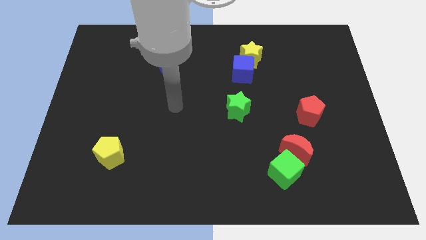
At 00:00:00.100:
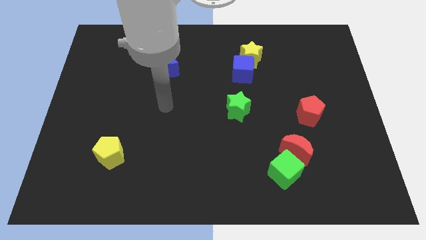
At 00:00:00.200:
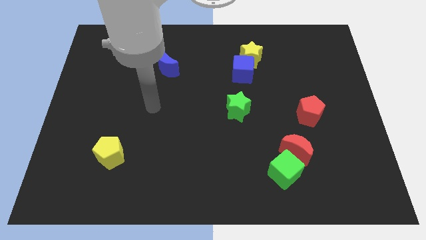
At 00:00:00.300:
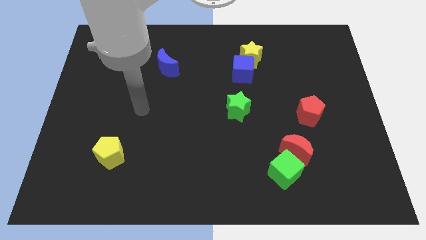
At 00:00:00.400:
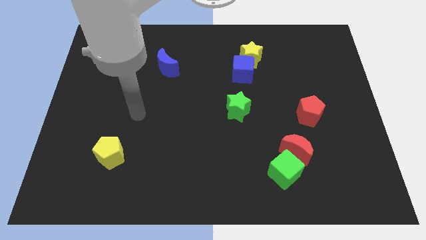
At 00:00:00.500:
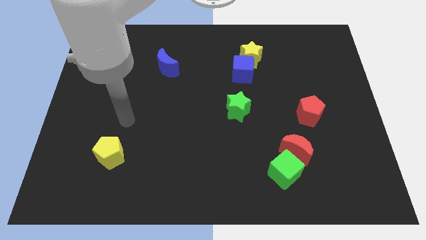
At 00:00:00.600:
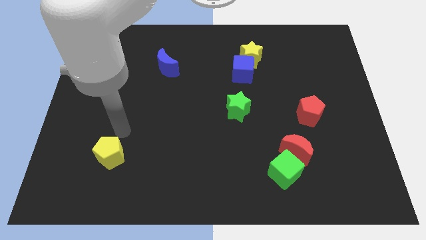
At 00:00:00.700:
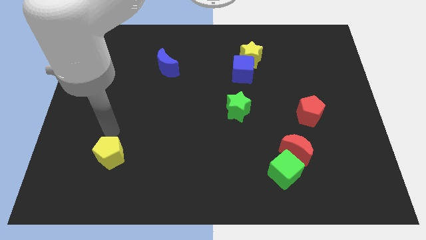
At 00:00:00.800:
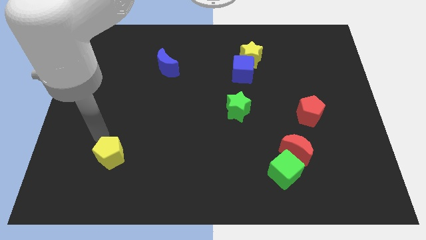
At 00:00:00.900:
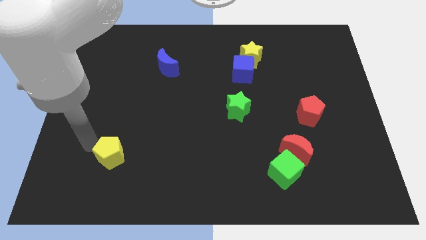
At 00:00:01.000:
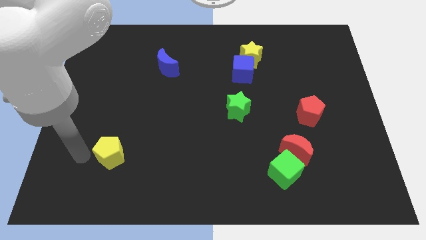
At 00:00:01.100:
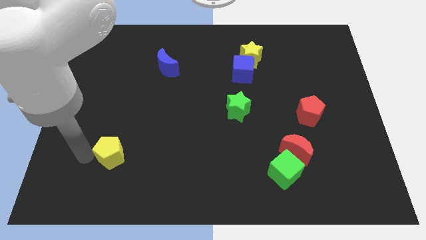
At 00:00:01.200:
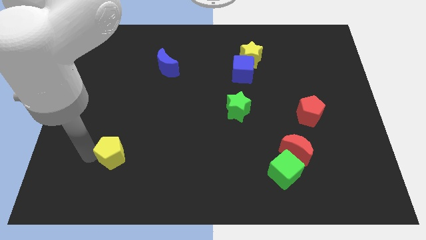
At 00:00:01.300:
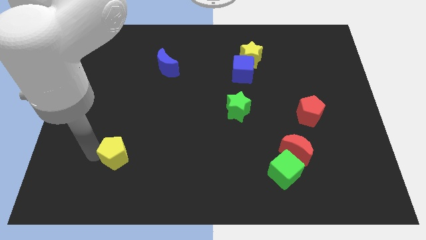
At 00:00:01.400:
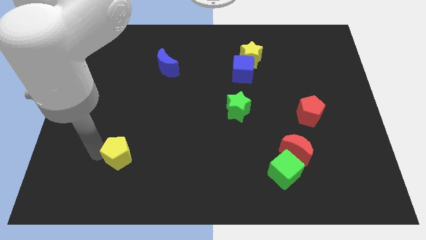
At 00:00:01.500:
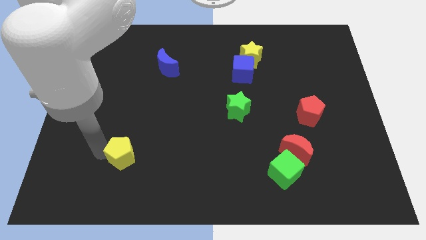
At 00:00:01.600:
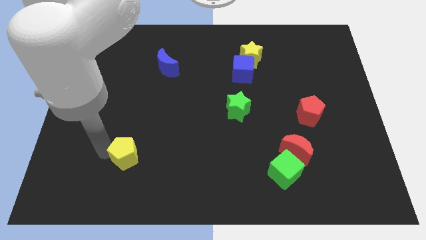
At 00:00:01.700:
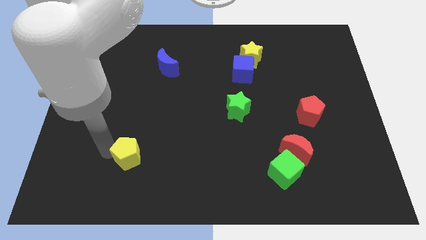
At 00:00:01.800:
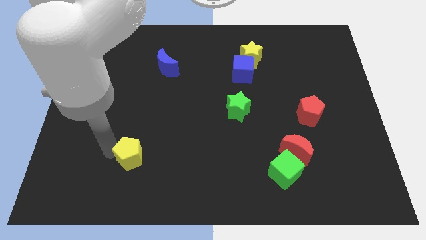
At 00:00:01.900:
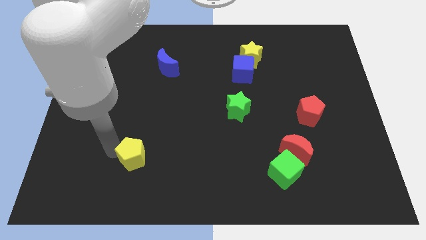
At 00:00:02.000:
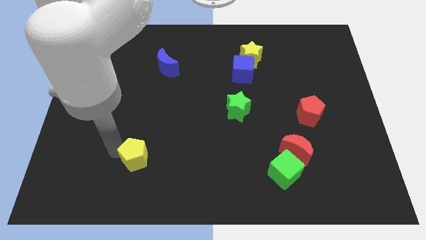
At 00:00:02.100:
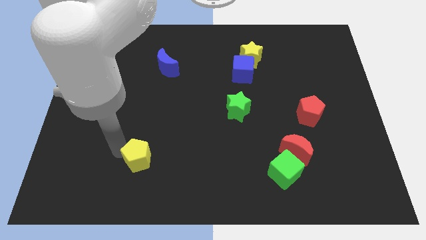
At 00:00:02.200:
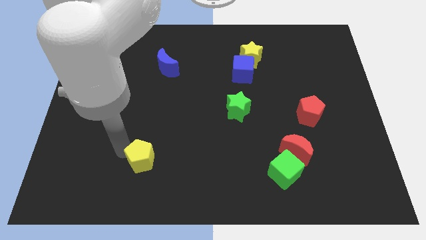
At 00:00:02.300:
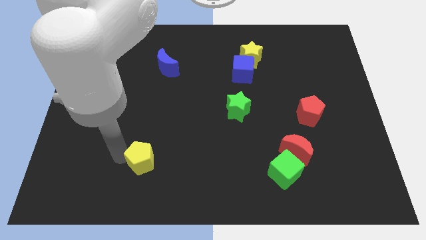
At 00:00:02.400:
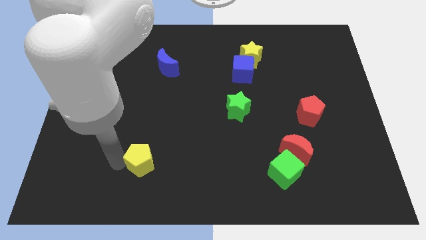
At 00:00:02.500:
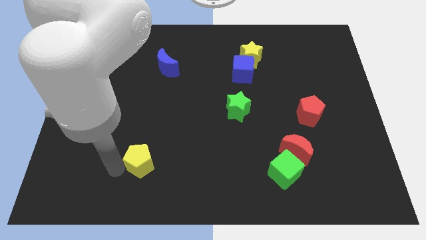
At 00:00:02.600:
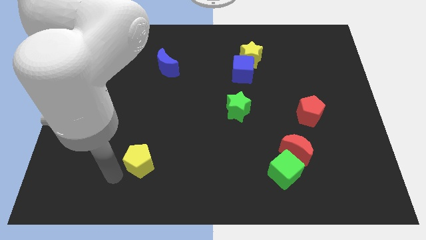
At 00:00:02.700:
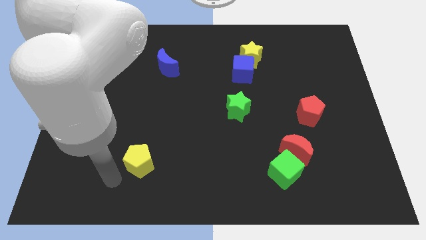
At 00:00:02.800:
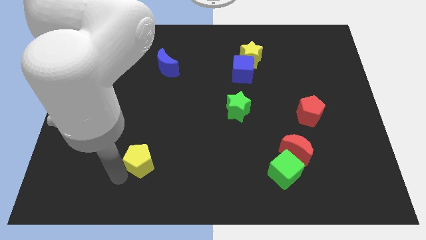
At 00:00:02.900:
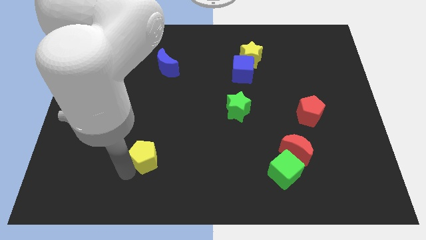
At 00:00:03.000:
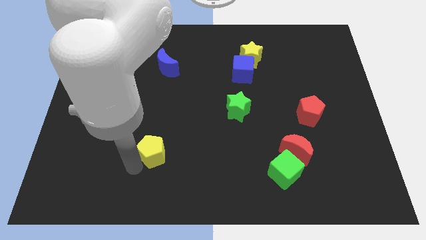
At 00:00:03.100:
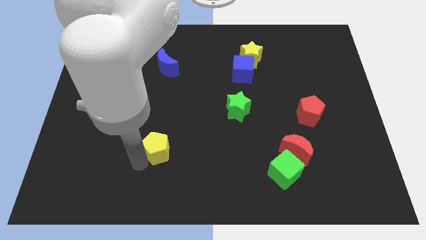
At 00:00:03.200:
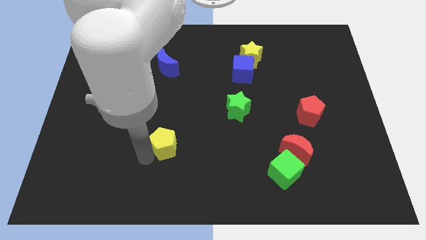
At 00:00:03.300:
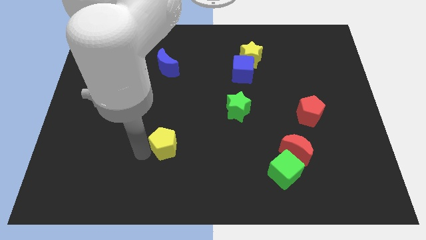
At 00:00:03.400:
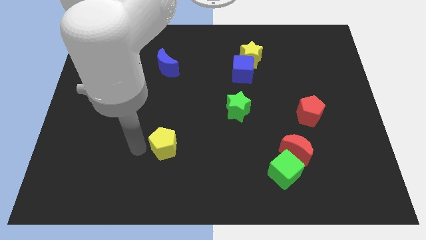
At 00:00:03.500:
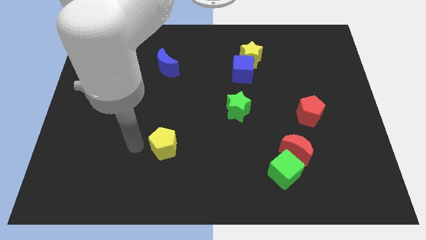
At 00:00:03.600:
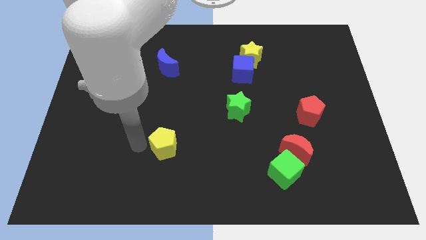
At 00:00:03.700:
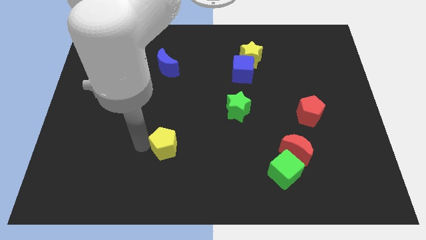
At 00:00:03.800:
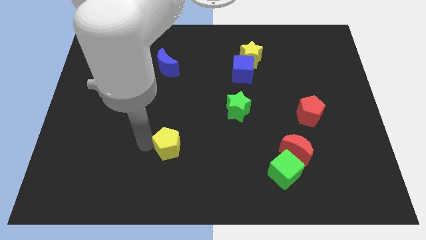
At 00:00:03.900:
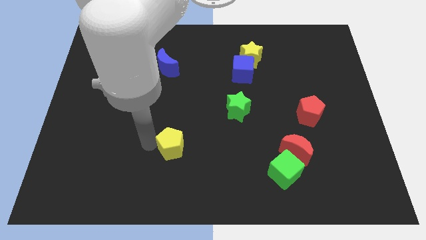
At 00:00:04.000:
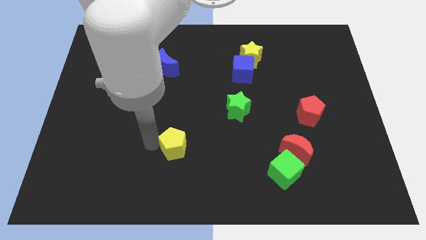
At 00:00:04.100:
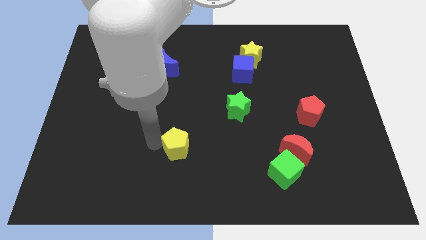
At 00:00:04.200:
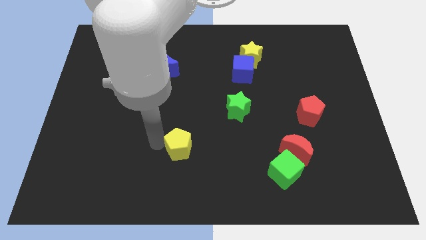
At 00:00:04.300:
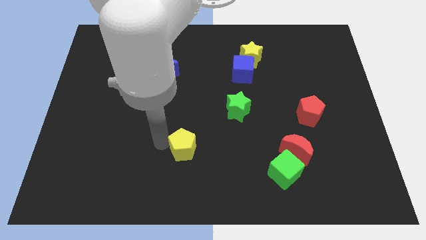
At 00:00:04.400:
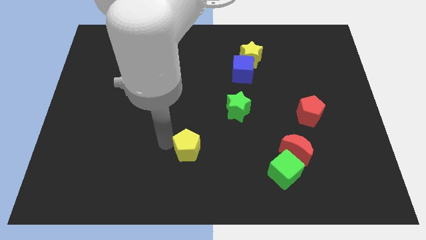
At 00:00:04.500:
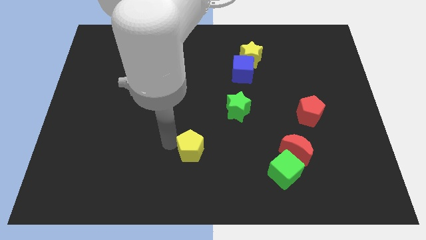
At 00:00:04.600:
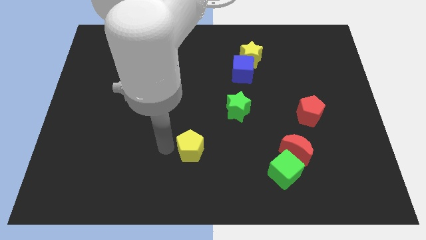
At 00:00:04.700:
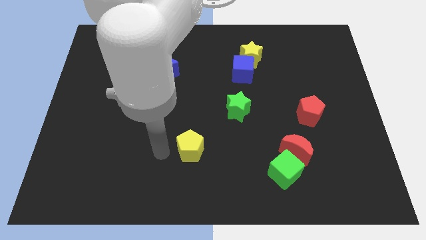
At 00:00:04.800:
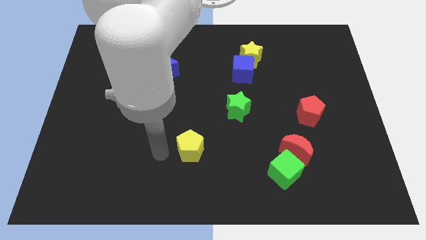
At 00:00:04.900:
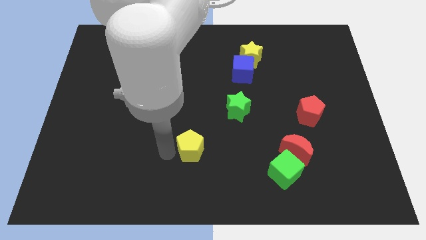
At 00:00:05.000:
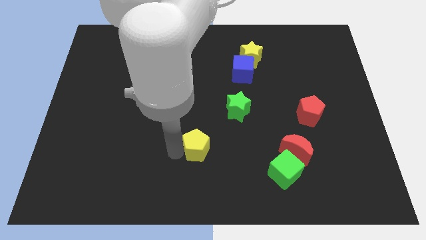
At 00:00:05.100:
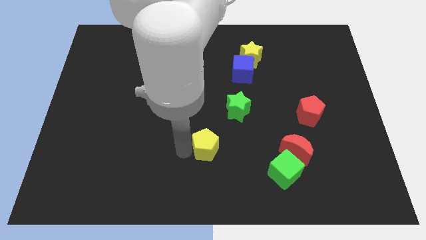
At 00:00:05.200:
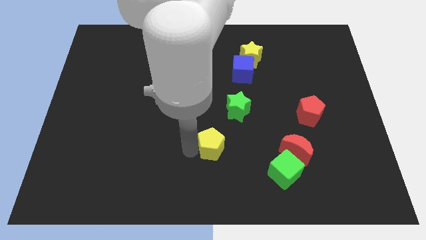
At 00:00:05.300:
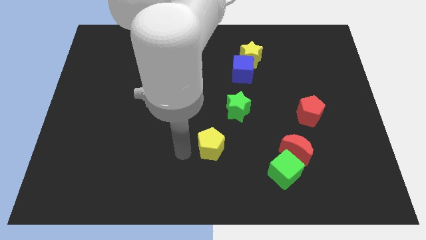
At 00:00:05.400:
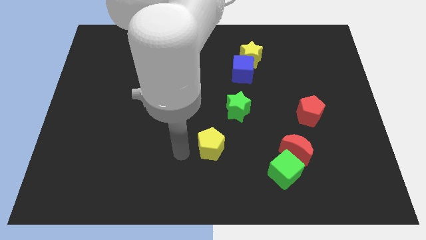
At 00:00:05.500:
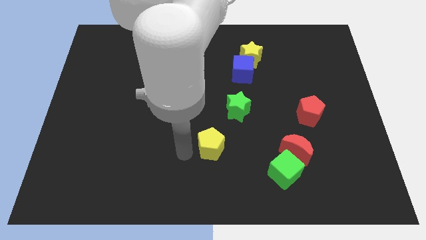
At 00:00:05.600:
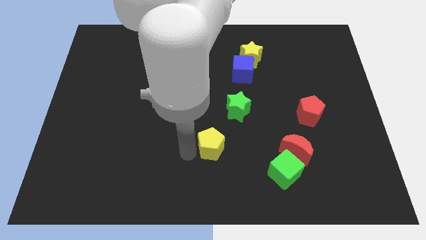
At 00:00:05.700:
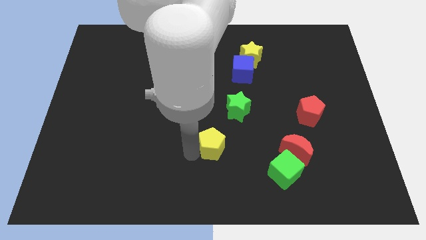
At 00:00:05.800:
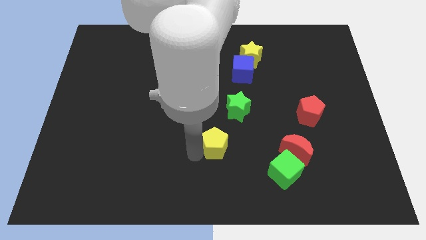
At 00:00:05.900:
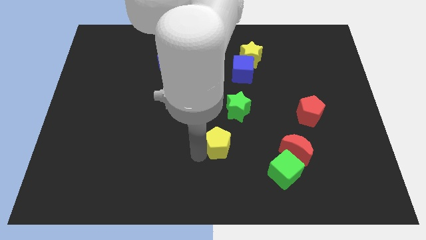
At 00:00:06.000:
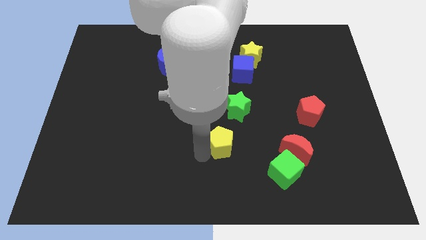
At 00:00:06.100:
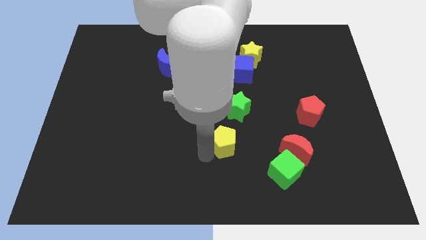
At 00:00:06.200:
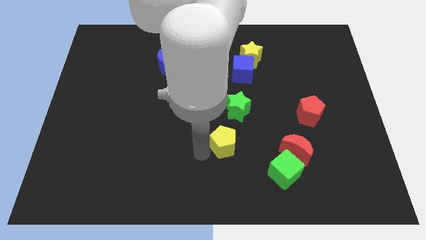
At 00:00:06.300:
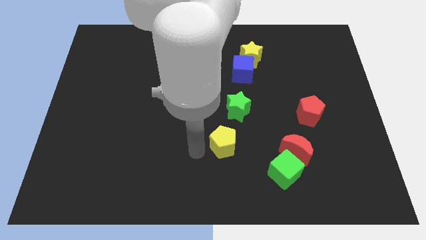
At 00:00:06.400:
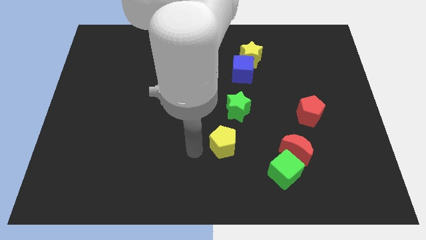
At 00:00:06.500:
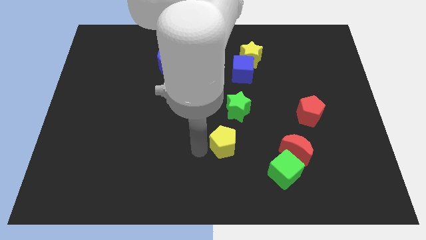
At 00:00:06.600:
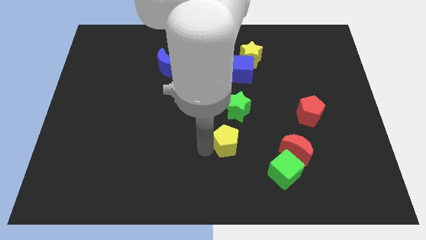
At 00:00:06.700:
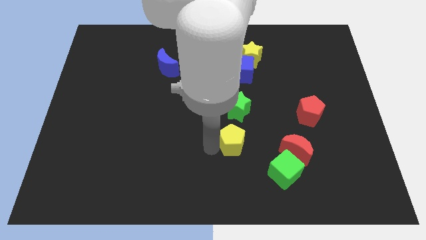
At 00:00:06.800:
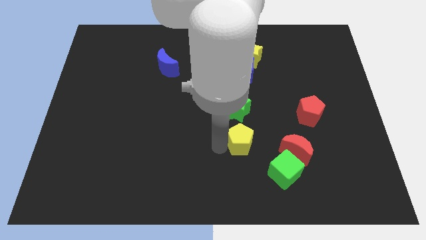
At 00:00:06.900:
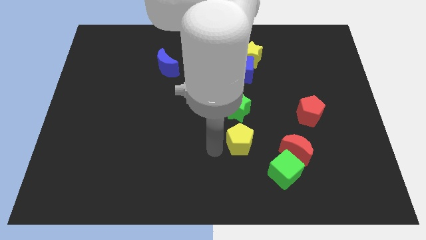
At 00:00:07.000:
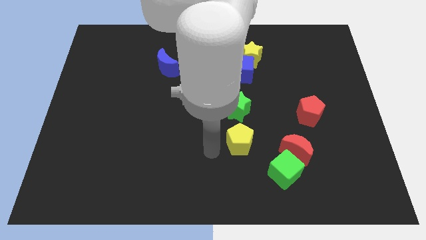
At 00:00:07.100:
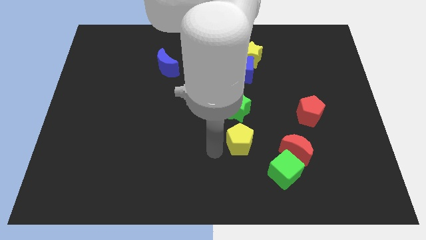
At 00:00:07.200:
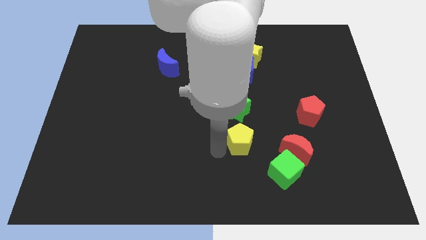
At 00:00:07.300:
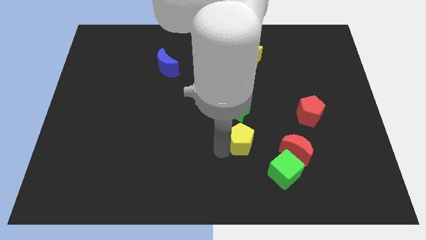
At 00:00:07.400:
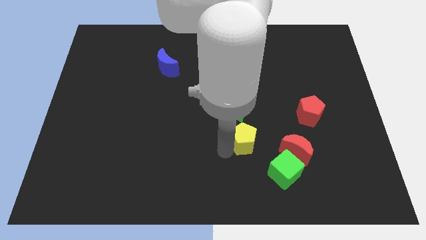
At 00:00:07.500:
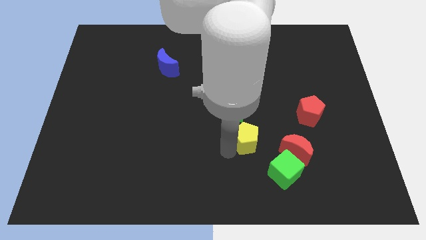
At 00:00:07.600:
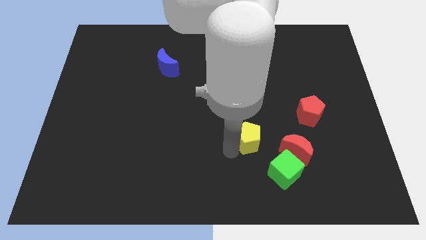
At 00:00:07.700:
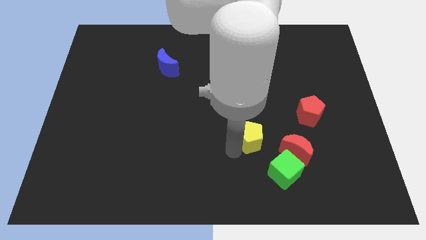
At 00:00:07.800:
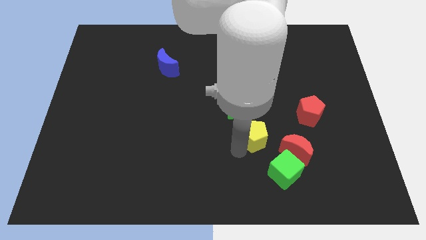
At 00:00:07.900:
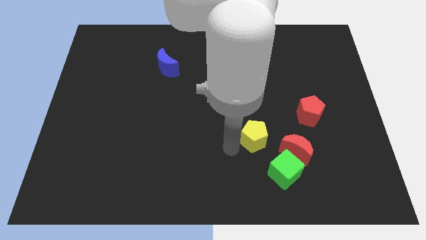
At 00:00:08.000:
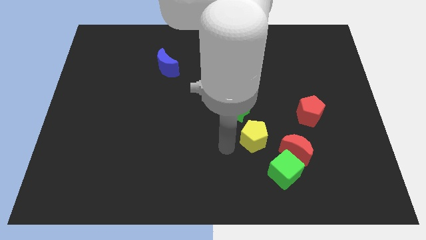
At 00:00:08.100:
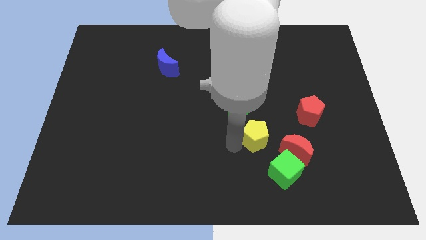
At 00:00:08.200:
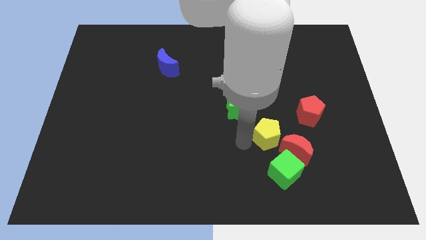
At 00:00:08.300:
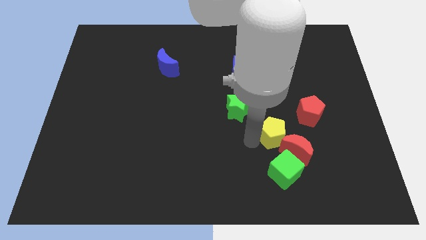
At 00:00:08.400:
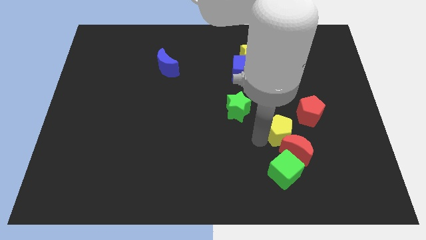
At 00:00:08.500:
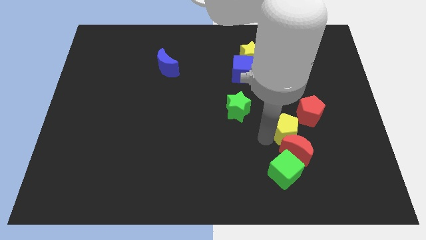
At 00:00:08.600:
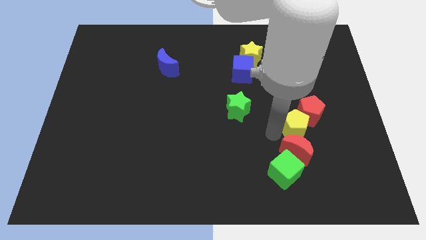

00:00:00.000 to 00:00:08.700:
push the yellow pentagon below the red pentagon
